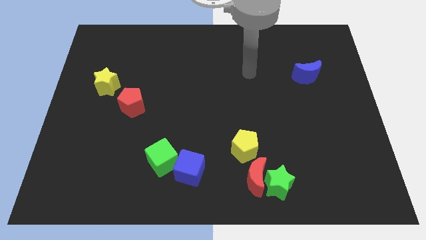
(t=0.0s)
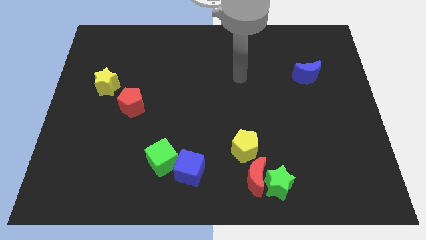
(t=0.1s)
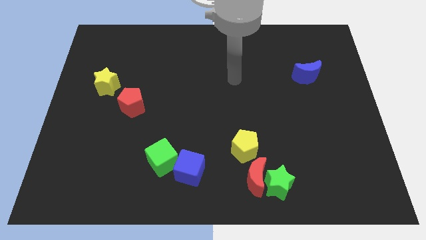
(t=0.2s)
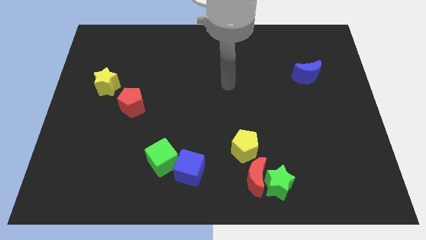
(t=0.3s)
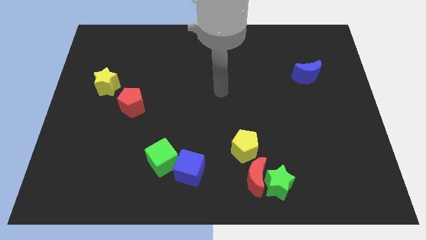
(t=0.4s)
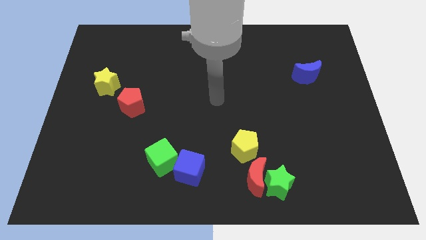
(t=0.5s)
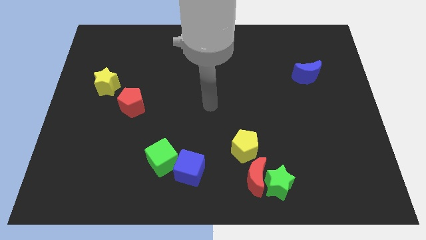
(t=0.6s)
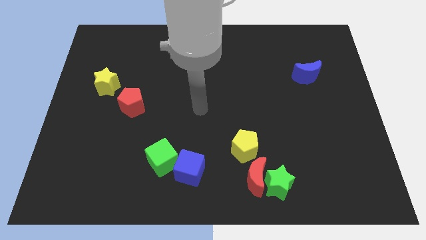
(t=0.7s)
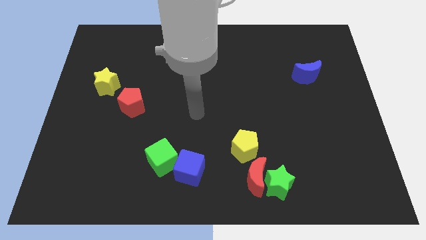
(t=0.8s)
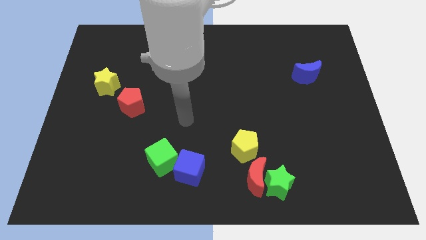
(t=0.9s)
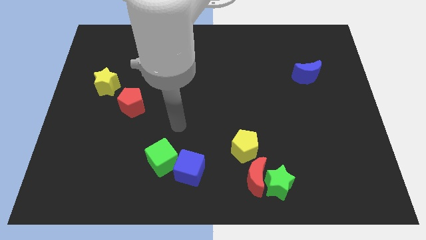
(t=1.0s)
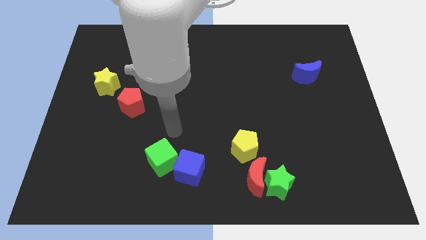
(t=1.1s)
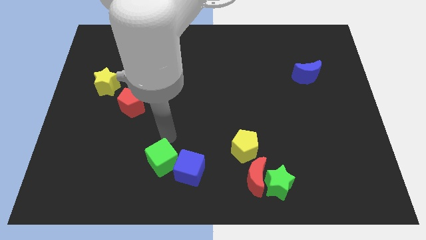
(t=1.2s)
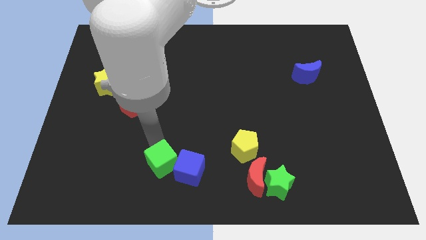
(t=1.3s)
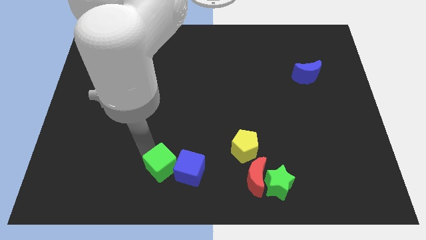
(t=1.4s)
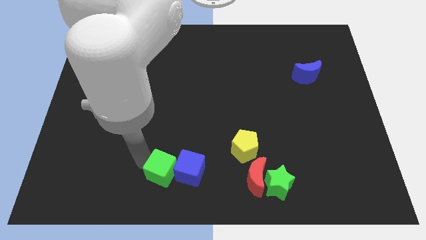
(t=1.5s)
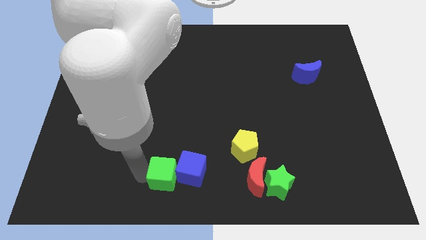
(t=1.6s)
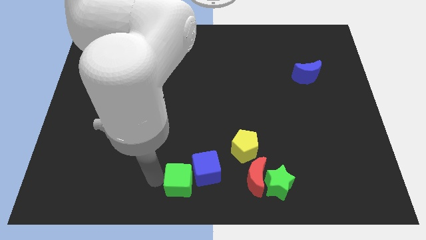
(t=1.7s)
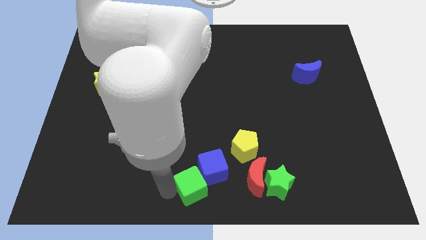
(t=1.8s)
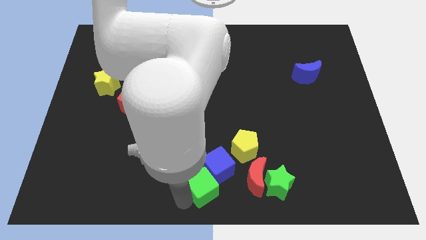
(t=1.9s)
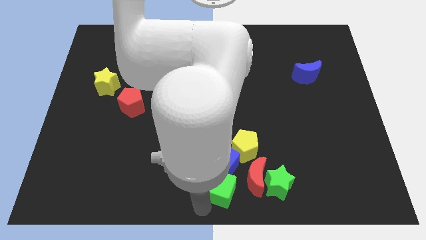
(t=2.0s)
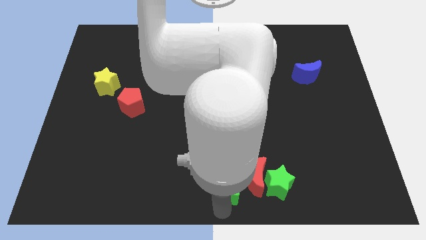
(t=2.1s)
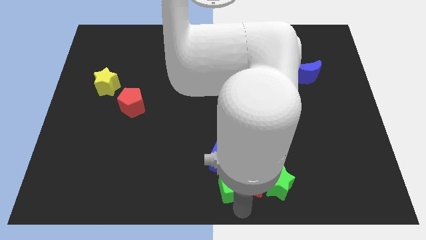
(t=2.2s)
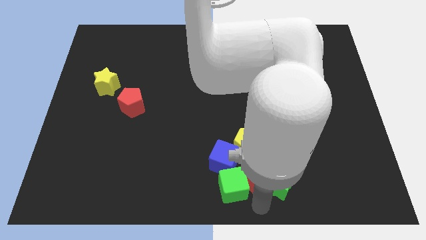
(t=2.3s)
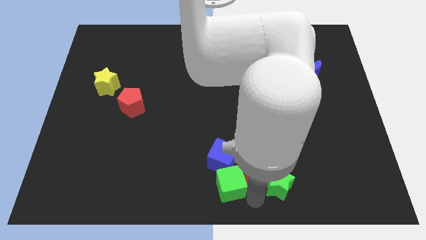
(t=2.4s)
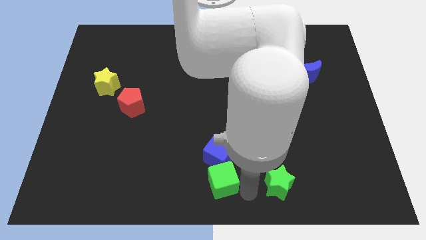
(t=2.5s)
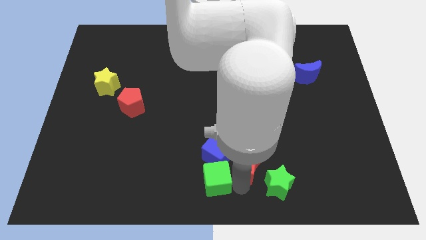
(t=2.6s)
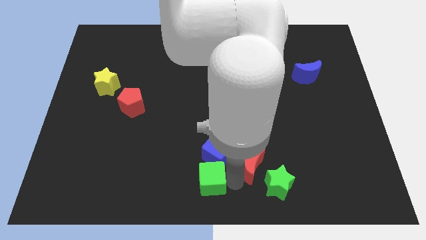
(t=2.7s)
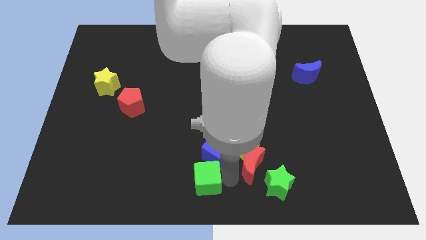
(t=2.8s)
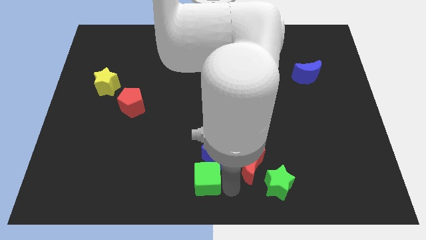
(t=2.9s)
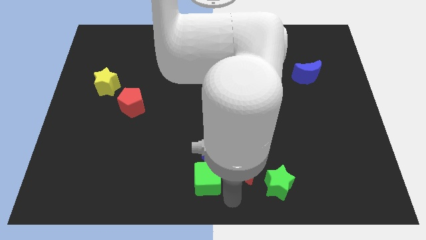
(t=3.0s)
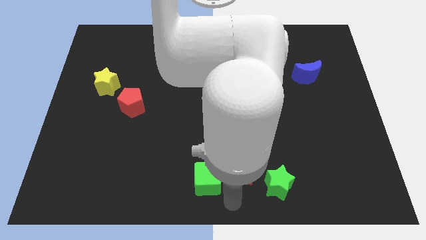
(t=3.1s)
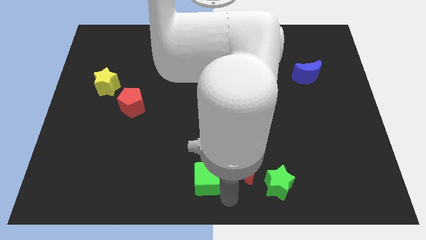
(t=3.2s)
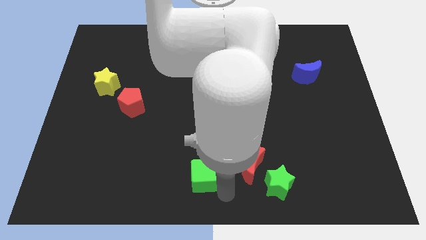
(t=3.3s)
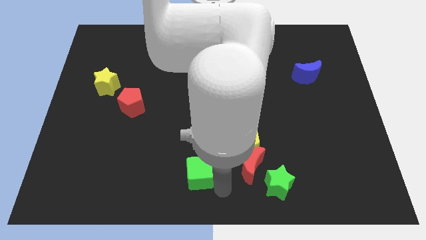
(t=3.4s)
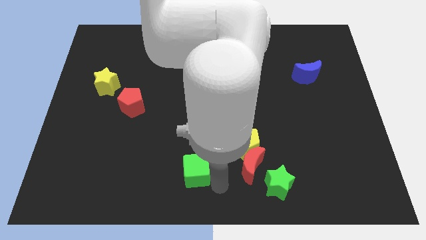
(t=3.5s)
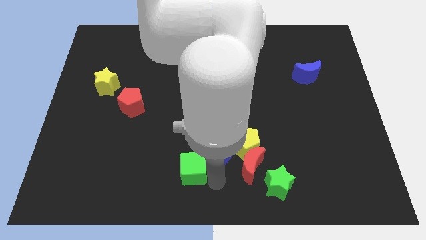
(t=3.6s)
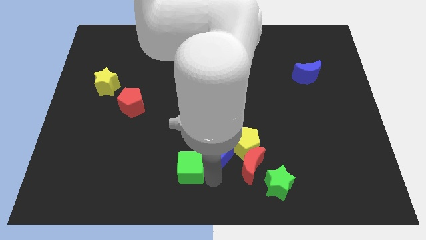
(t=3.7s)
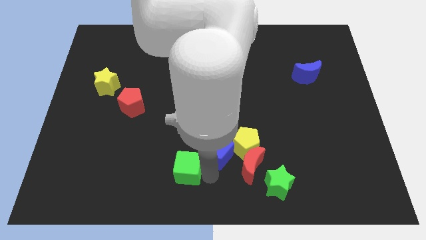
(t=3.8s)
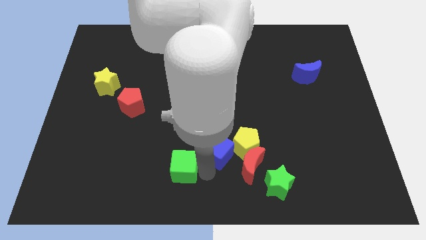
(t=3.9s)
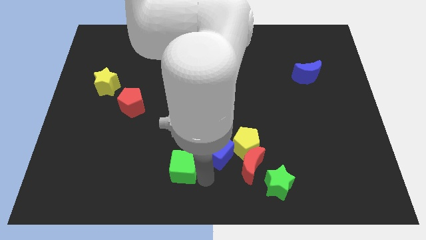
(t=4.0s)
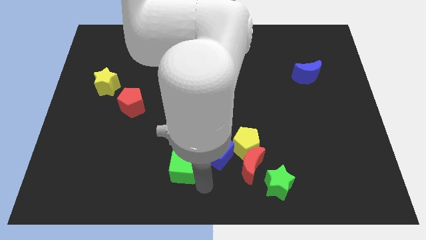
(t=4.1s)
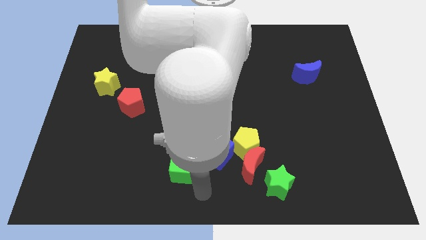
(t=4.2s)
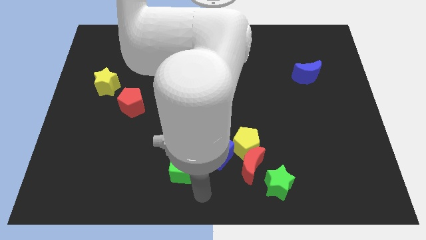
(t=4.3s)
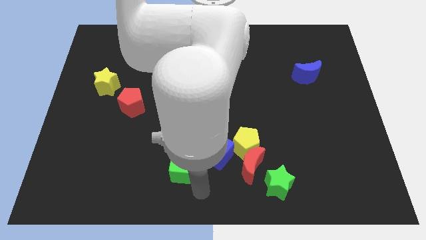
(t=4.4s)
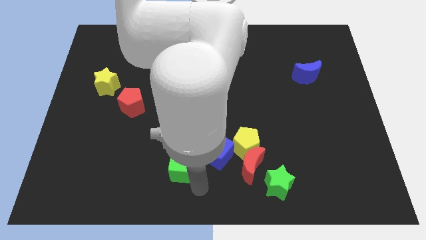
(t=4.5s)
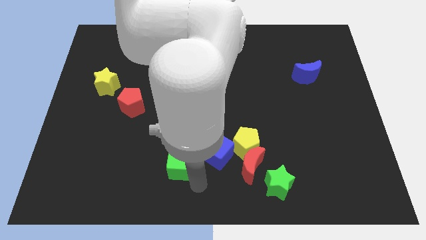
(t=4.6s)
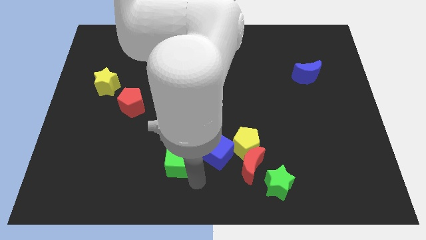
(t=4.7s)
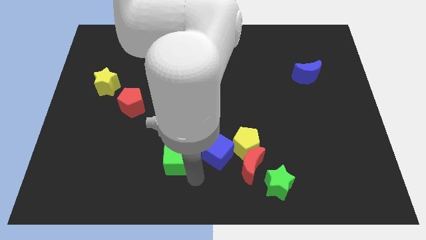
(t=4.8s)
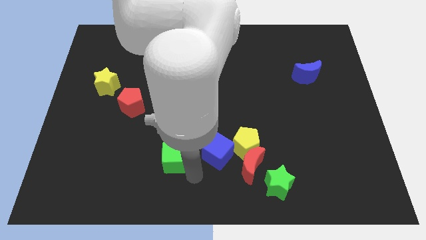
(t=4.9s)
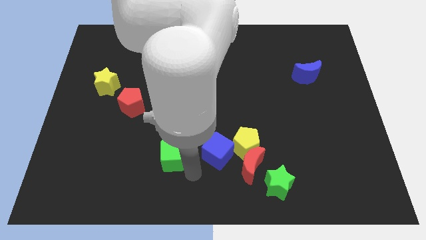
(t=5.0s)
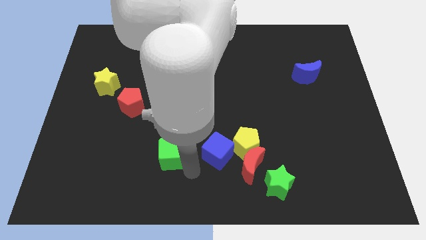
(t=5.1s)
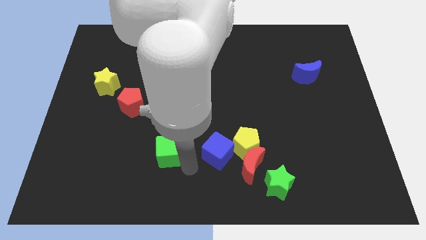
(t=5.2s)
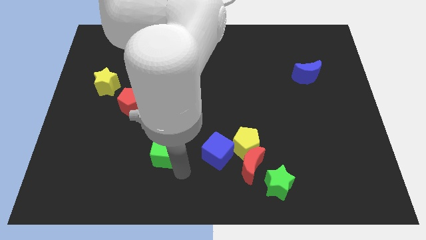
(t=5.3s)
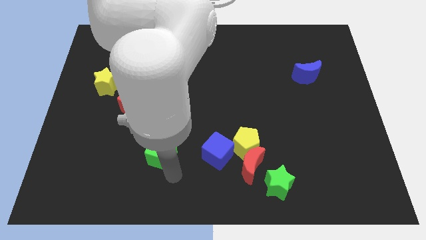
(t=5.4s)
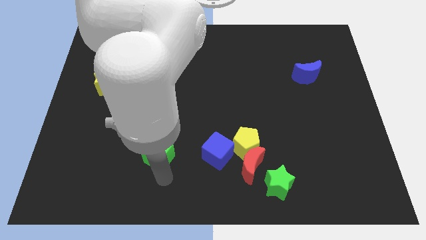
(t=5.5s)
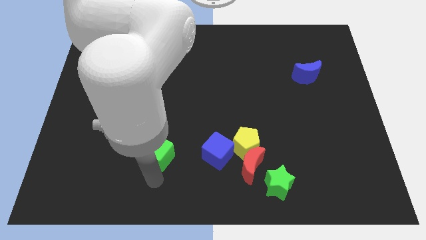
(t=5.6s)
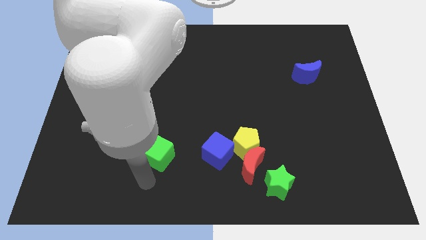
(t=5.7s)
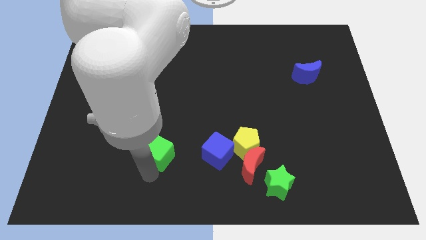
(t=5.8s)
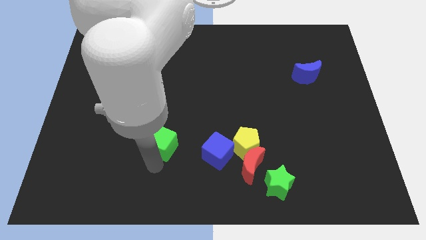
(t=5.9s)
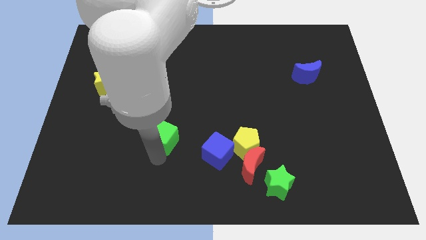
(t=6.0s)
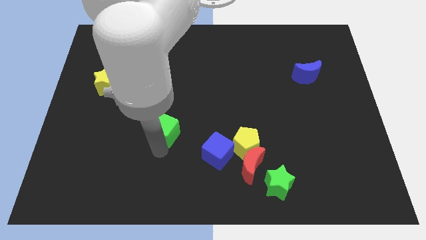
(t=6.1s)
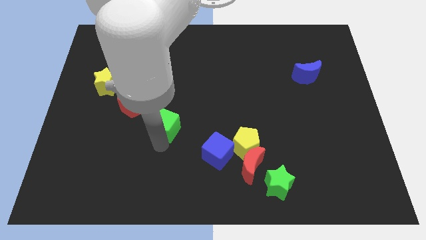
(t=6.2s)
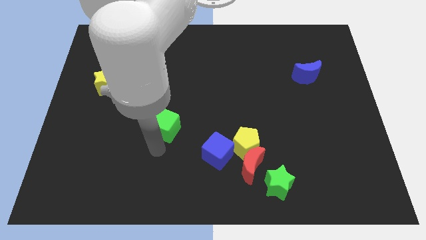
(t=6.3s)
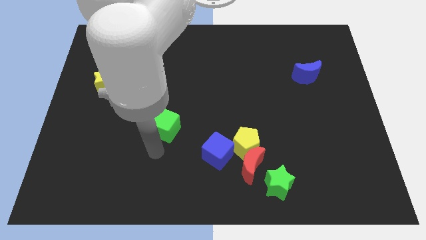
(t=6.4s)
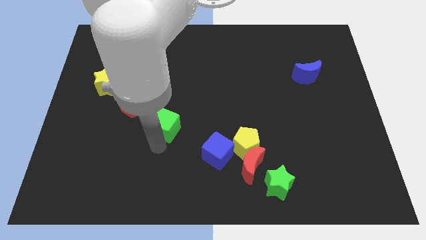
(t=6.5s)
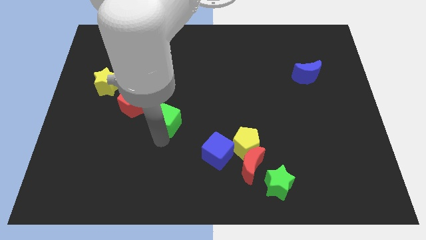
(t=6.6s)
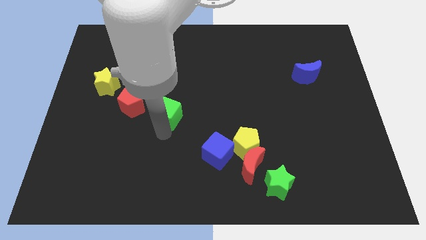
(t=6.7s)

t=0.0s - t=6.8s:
move the green cube to the right of the red pentagon
